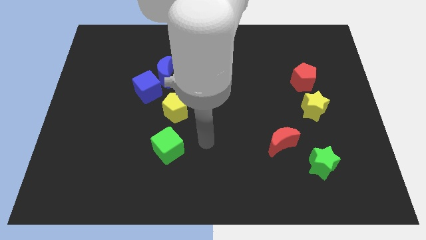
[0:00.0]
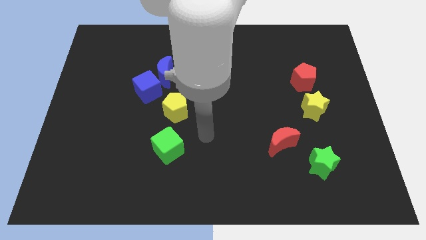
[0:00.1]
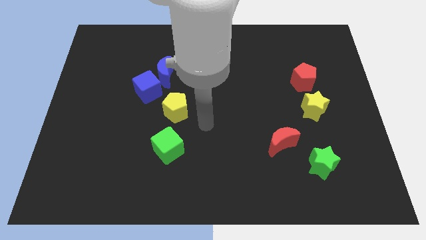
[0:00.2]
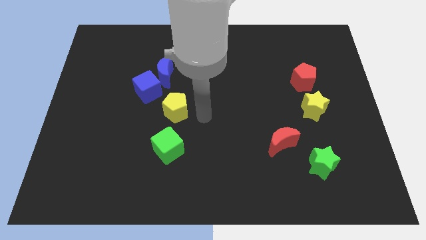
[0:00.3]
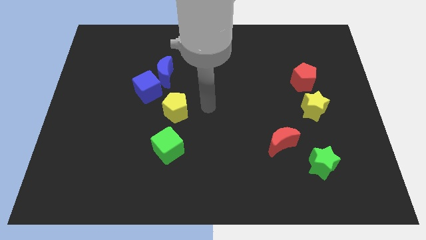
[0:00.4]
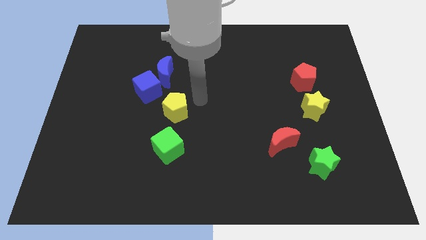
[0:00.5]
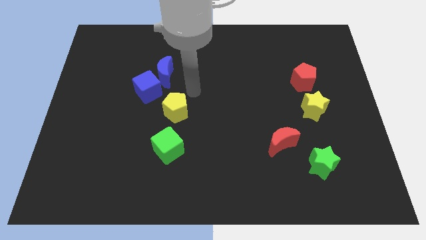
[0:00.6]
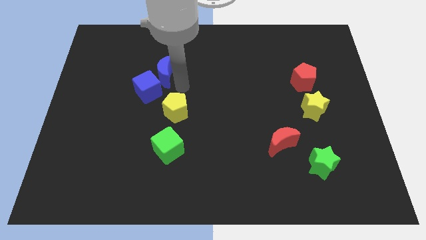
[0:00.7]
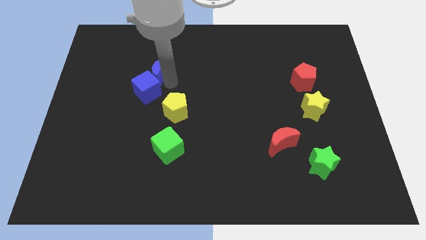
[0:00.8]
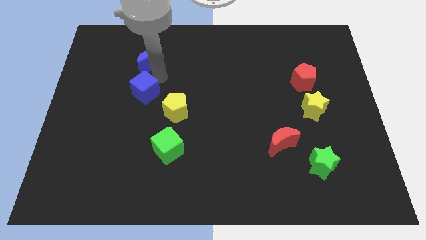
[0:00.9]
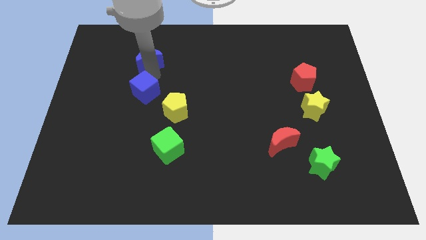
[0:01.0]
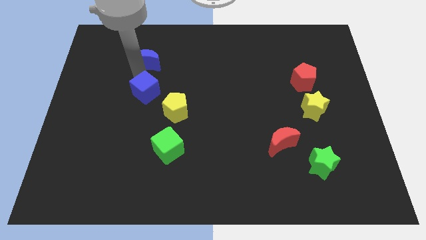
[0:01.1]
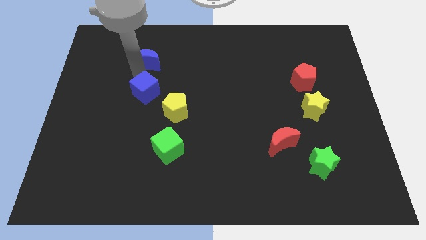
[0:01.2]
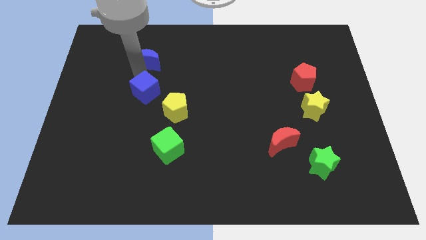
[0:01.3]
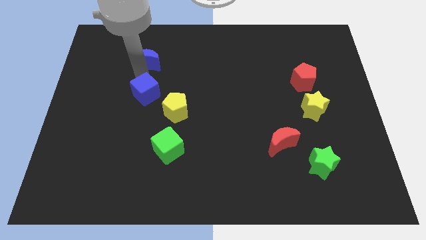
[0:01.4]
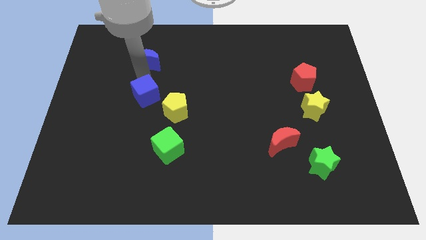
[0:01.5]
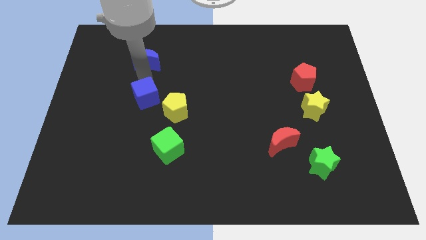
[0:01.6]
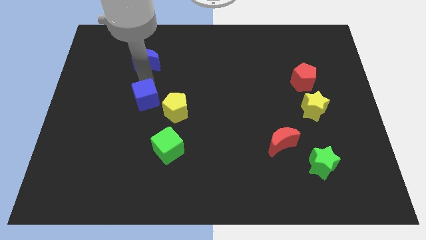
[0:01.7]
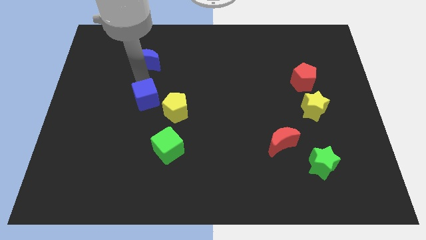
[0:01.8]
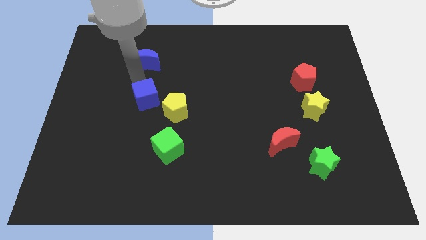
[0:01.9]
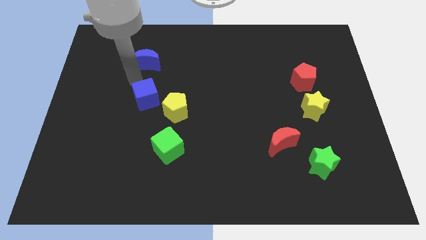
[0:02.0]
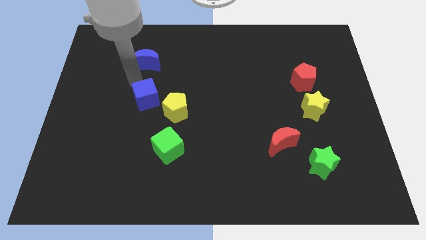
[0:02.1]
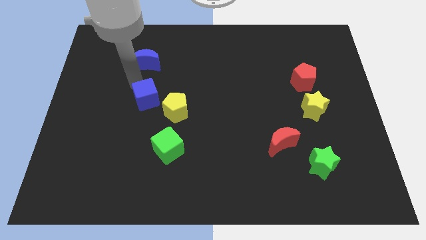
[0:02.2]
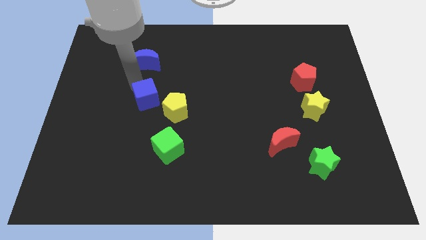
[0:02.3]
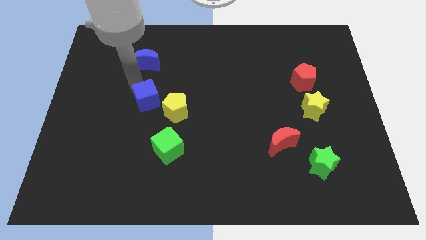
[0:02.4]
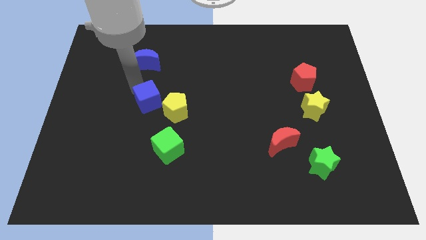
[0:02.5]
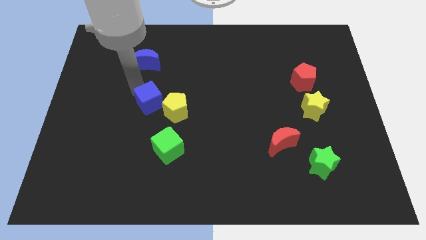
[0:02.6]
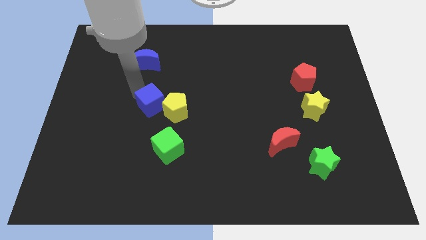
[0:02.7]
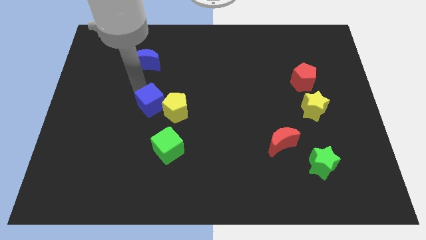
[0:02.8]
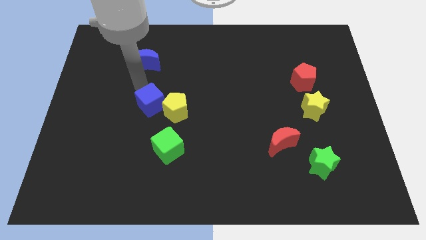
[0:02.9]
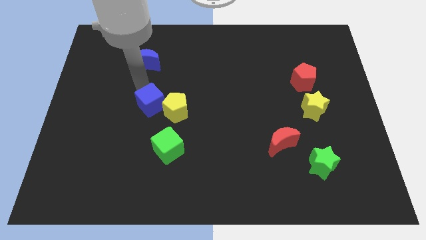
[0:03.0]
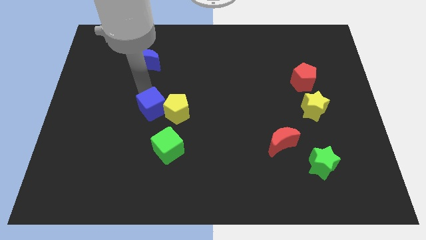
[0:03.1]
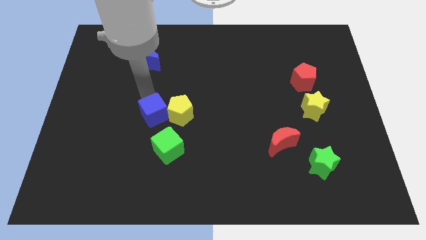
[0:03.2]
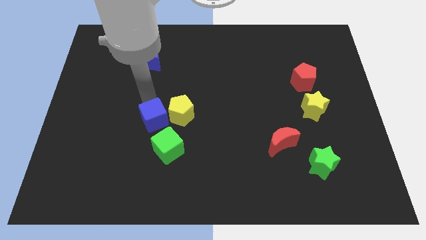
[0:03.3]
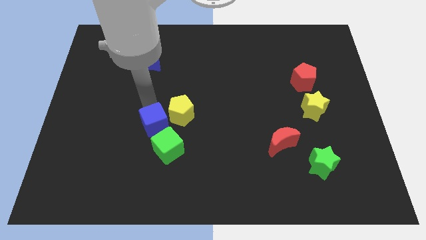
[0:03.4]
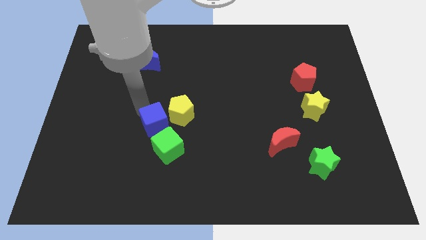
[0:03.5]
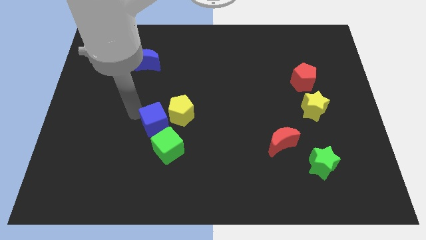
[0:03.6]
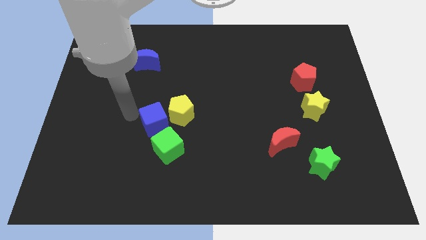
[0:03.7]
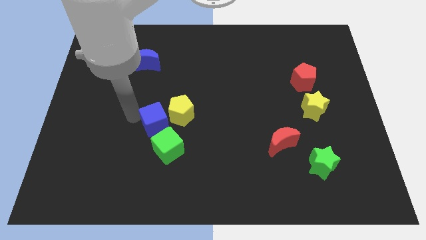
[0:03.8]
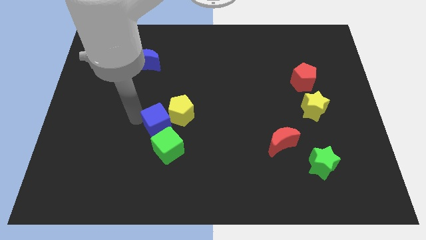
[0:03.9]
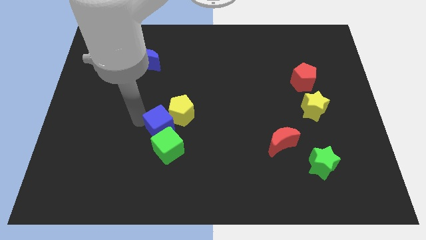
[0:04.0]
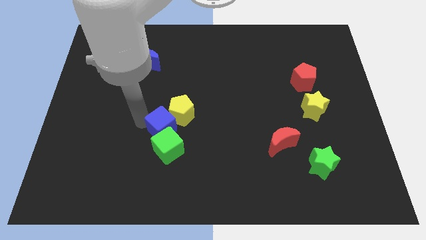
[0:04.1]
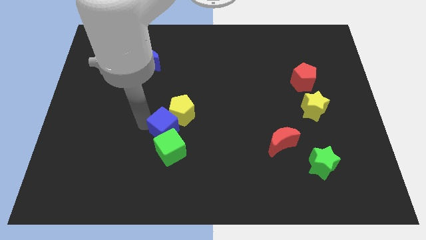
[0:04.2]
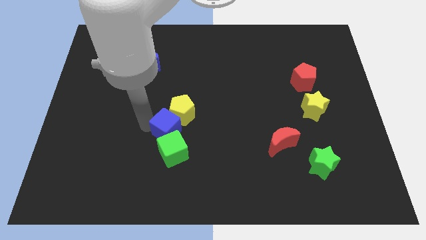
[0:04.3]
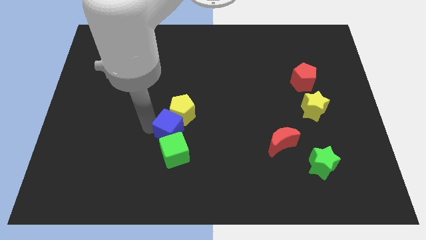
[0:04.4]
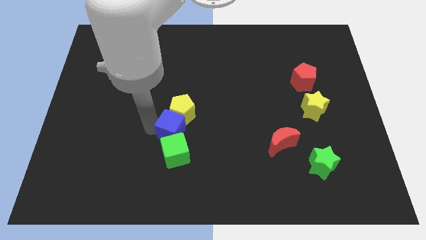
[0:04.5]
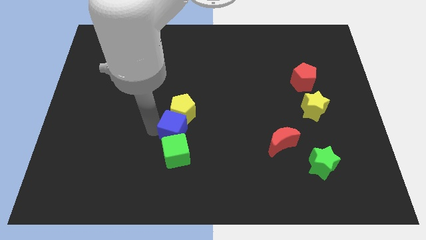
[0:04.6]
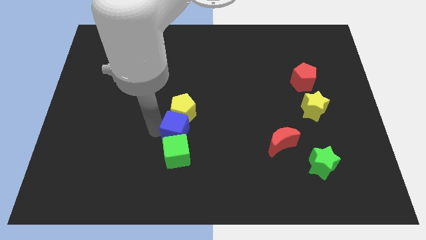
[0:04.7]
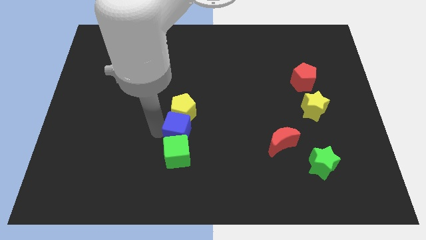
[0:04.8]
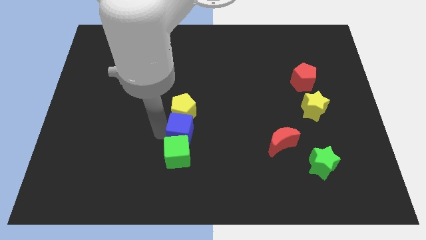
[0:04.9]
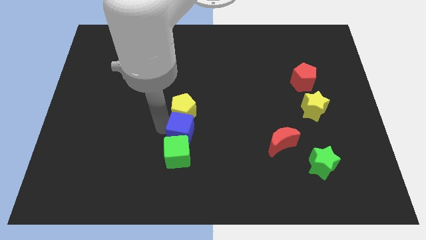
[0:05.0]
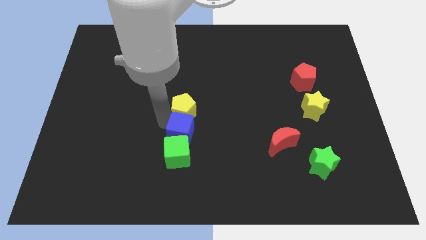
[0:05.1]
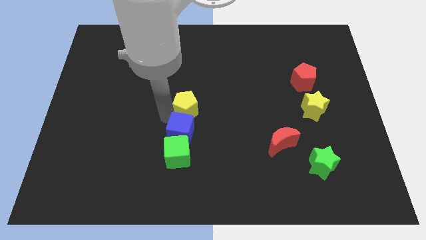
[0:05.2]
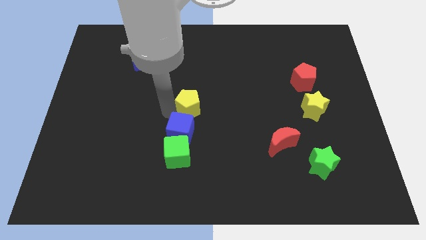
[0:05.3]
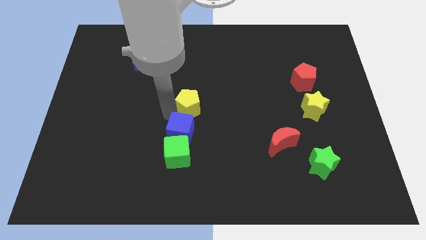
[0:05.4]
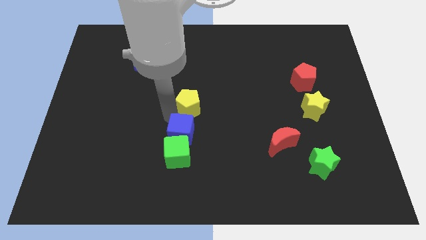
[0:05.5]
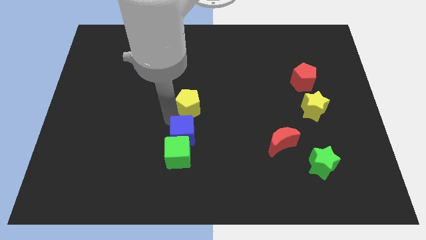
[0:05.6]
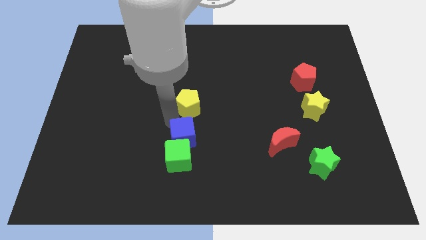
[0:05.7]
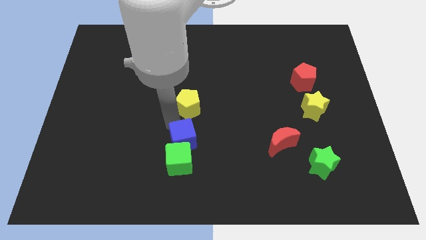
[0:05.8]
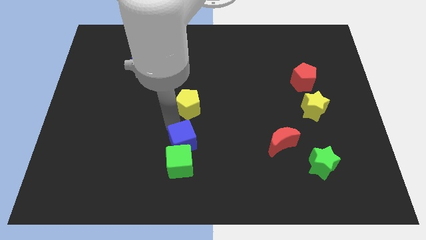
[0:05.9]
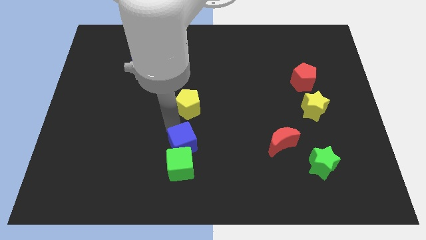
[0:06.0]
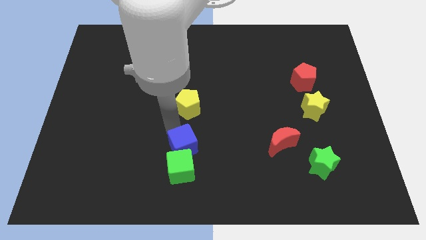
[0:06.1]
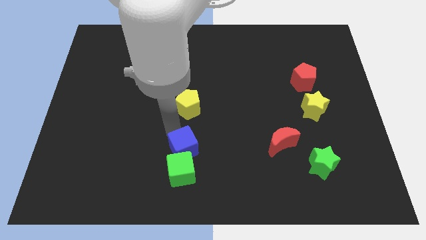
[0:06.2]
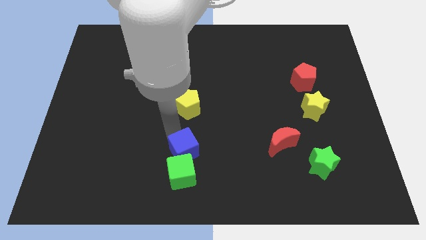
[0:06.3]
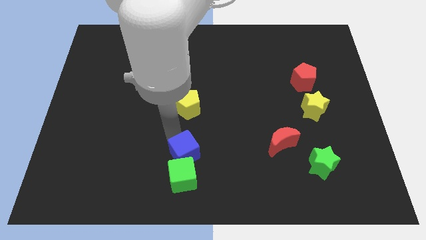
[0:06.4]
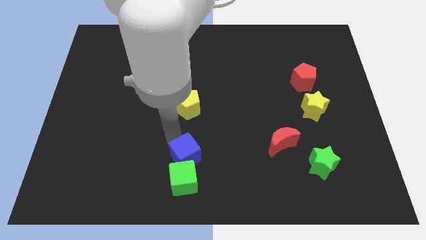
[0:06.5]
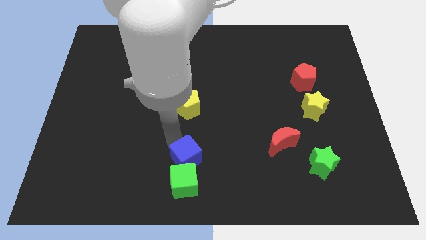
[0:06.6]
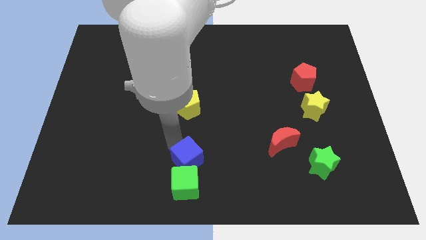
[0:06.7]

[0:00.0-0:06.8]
slide the blue cube to the bottom side
